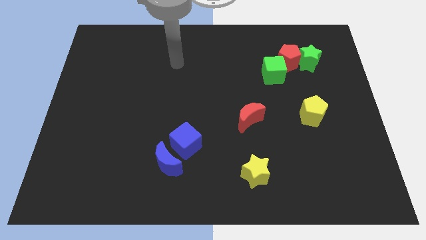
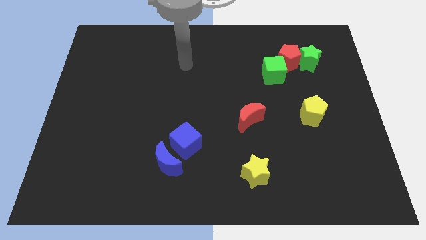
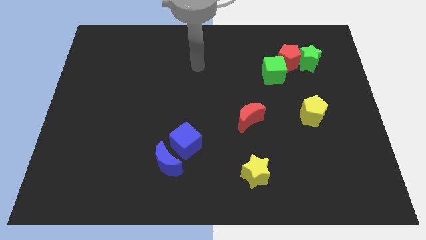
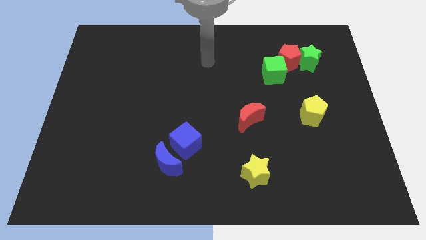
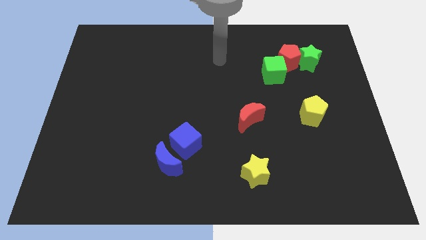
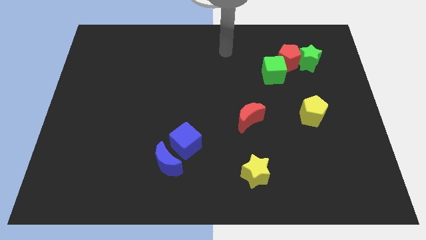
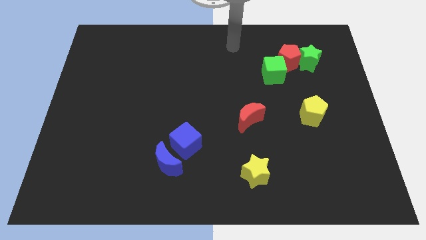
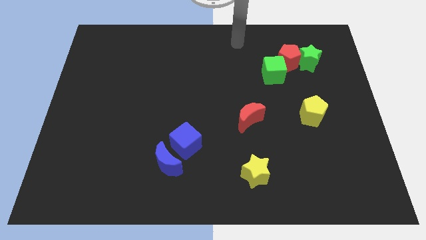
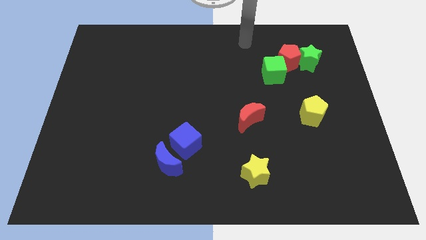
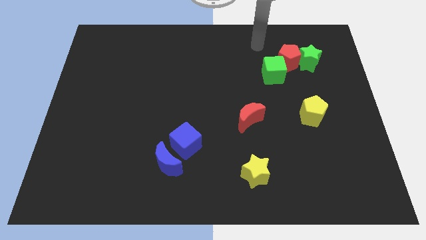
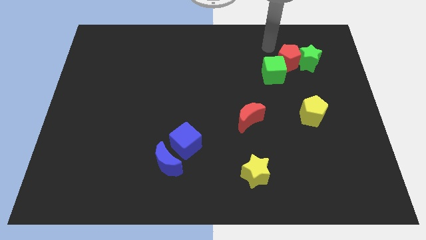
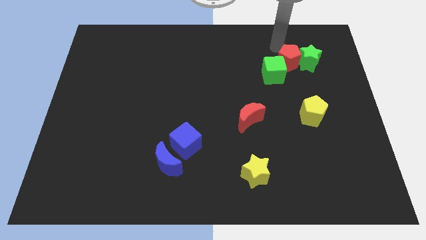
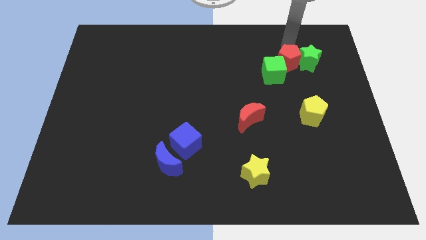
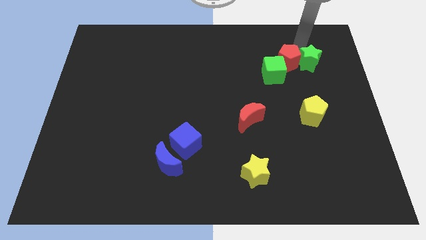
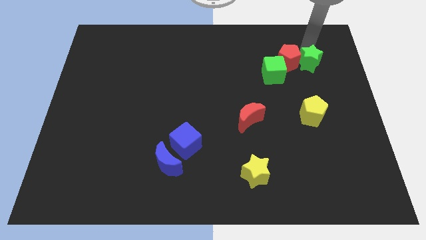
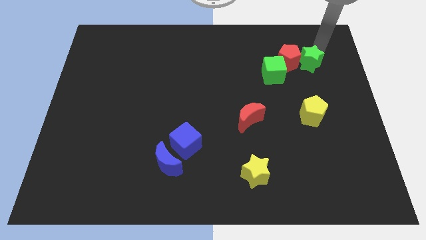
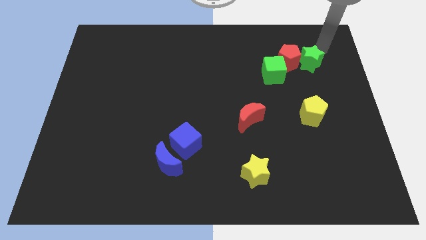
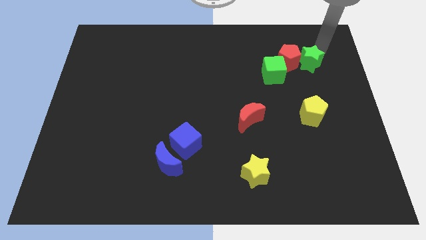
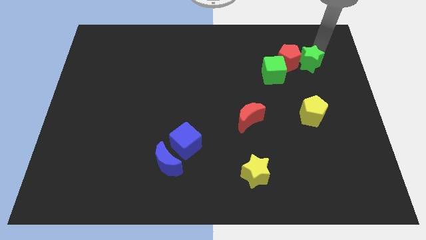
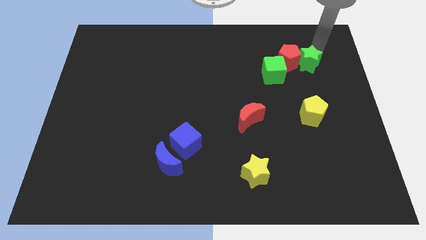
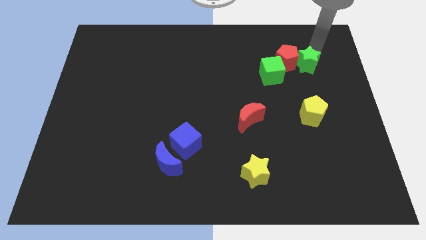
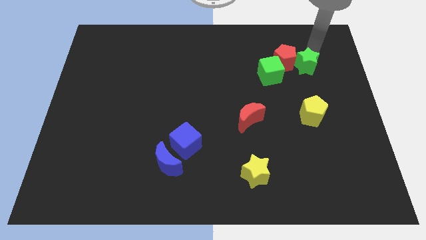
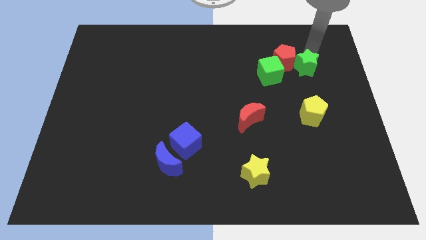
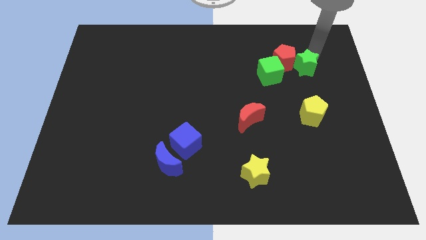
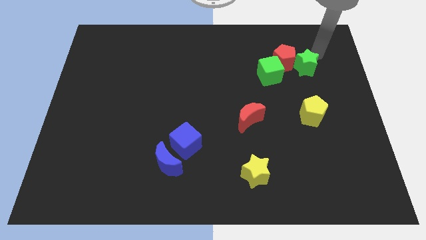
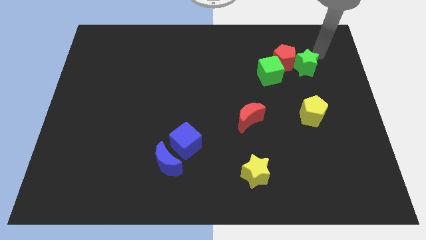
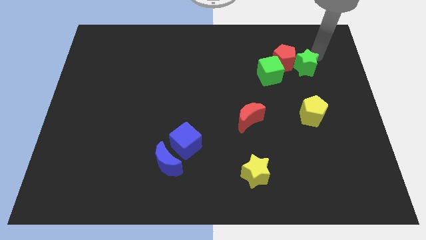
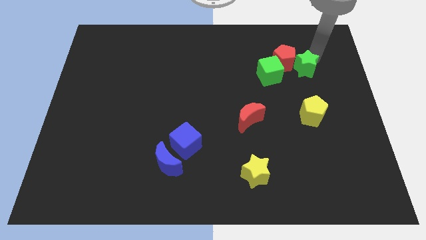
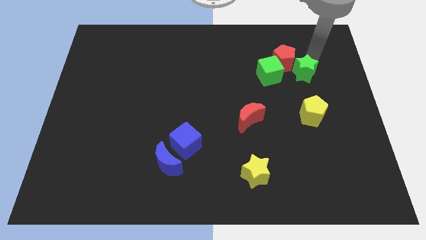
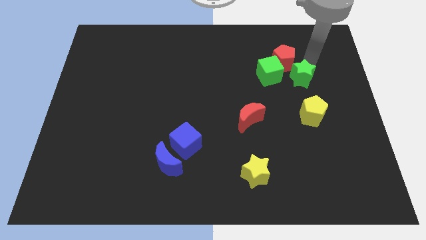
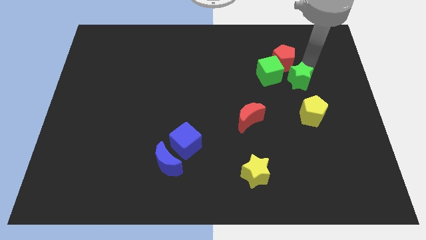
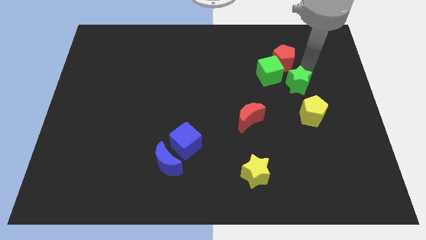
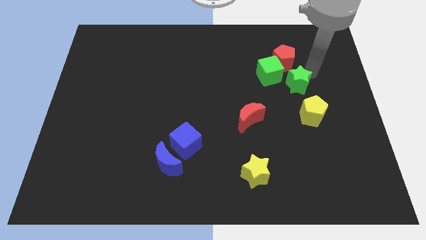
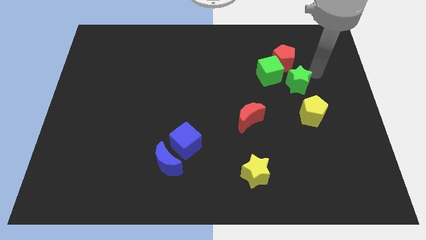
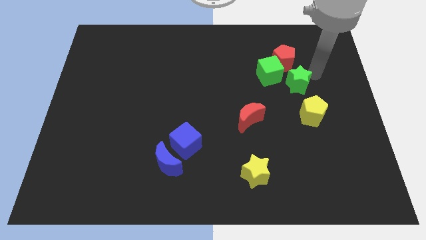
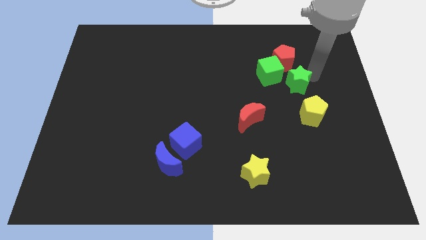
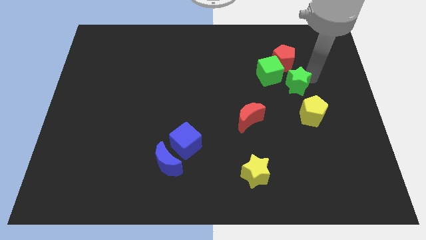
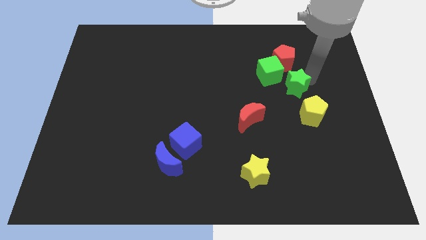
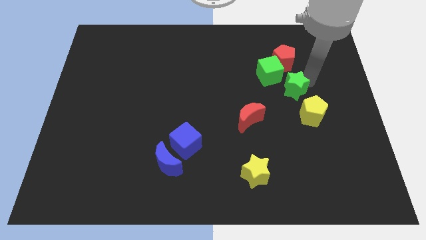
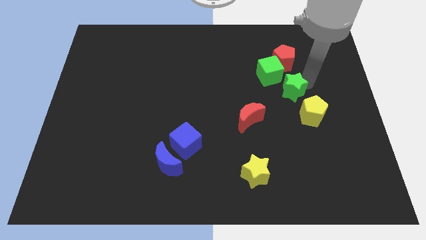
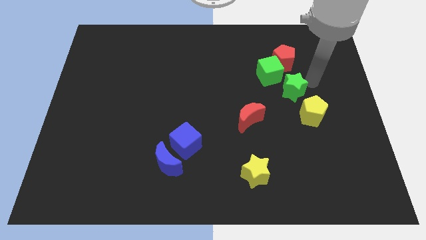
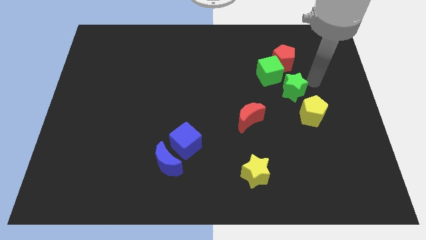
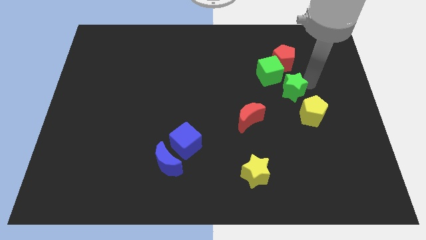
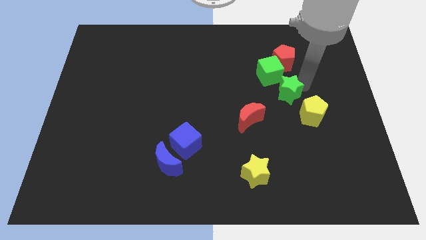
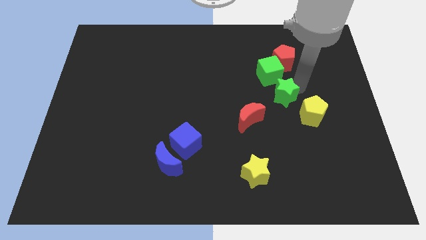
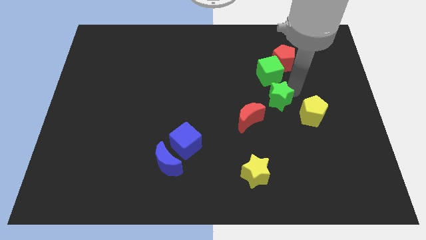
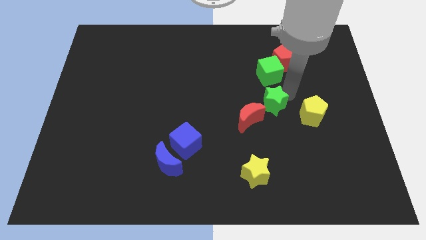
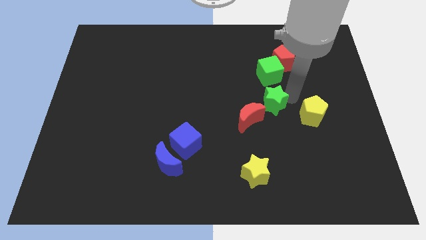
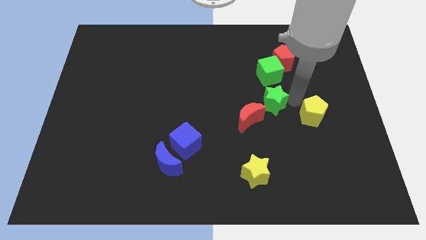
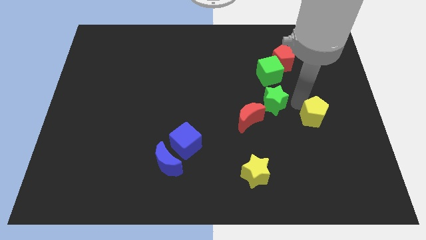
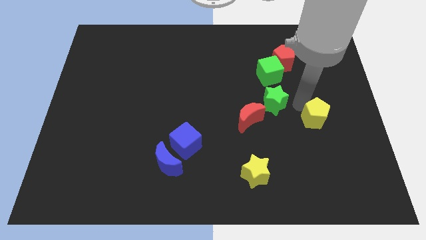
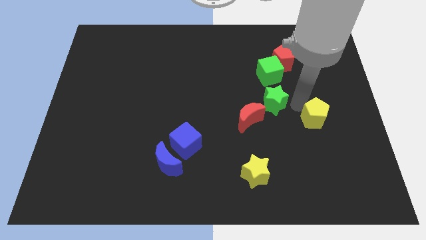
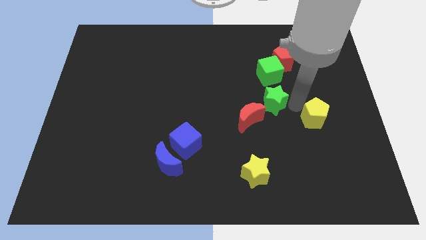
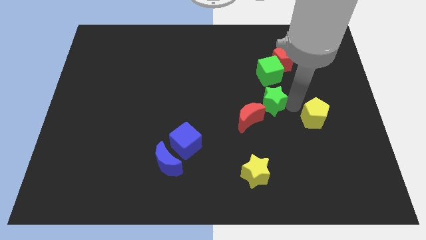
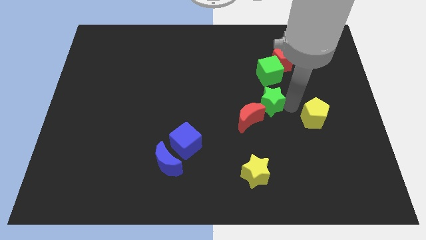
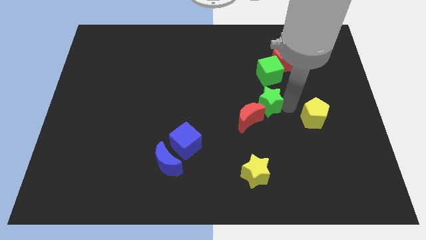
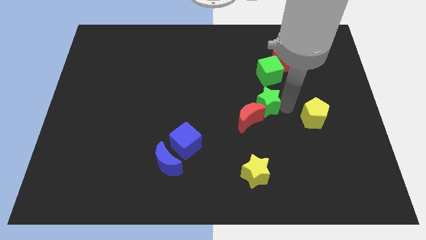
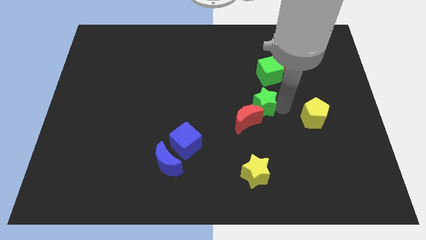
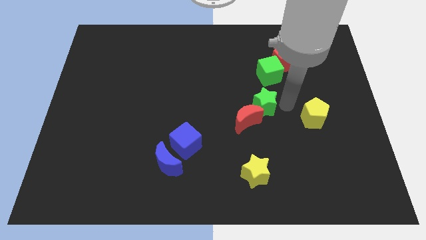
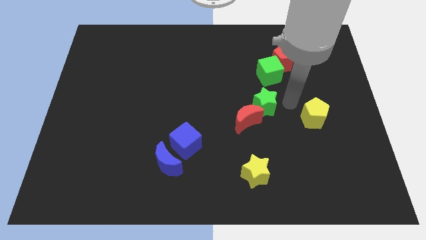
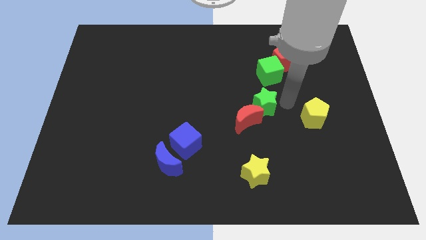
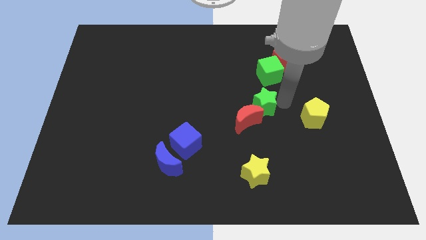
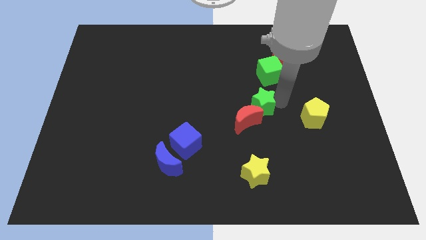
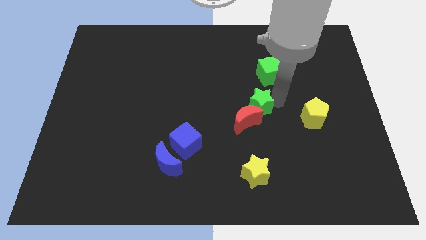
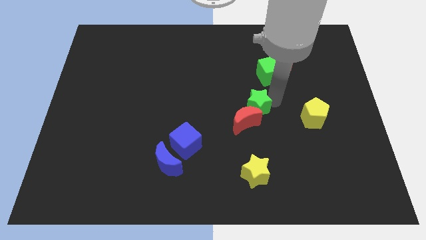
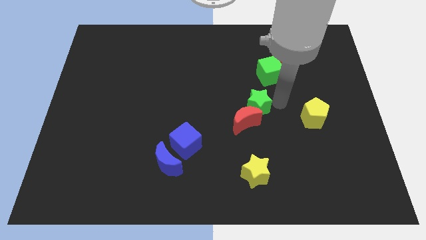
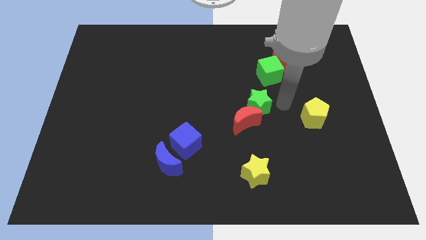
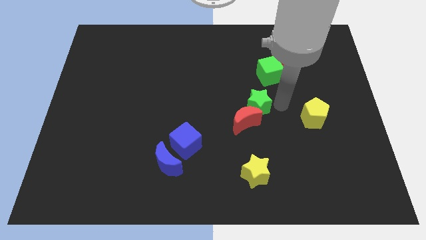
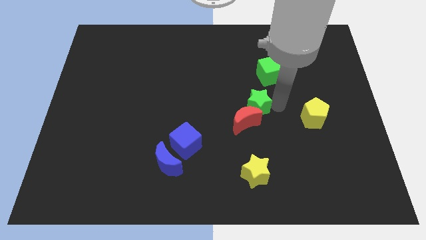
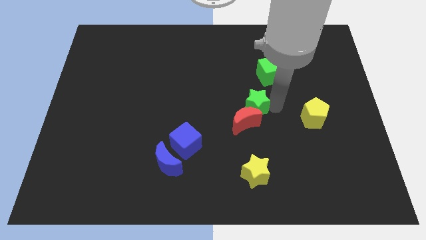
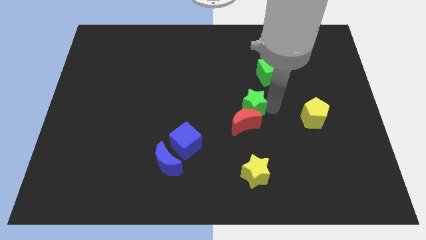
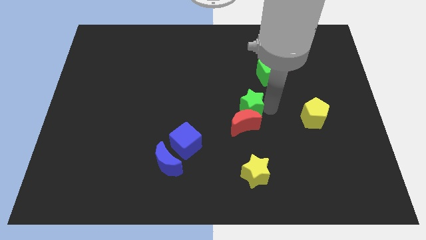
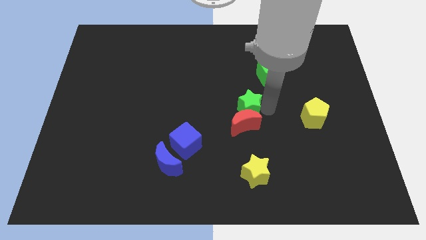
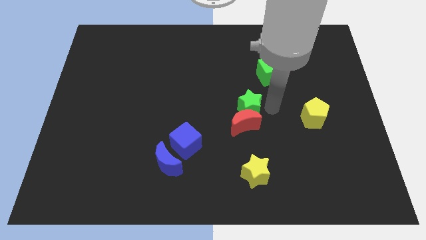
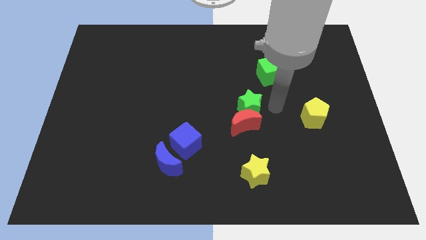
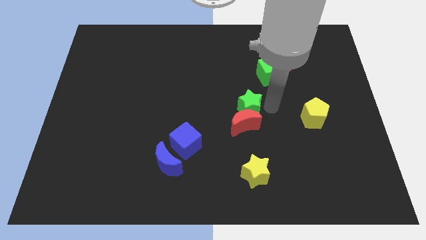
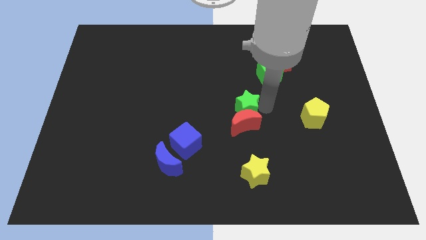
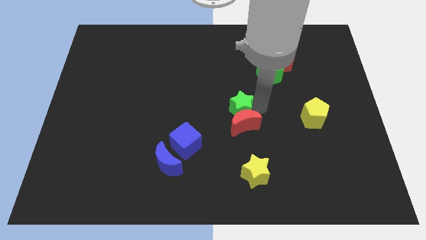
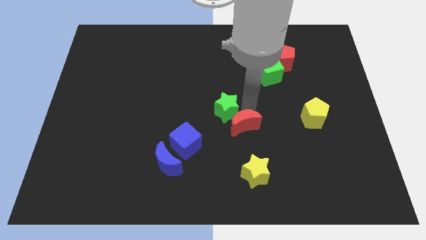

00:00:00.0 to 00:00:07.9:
move the green star to the left side of the red moon

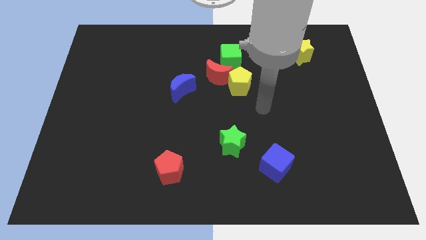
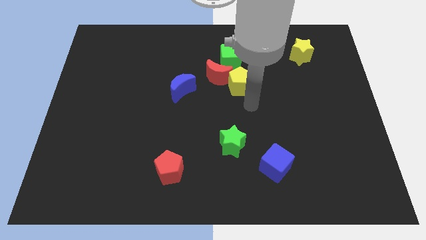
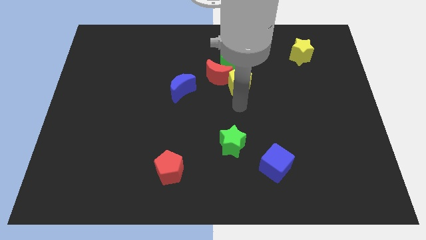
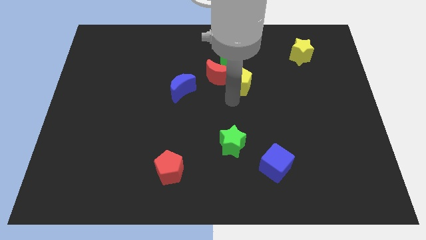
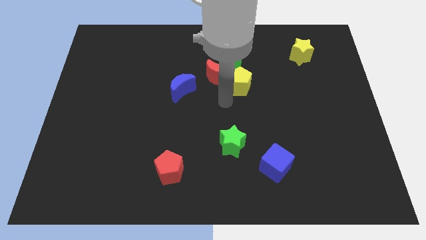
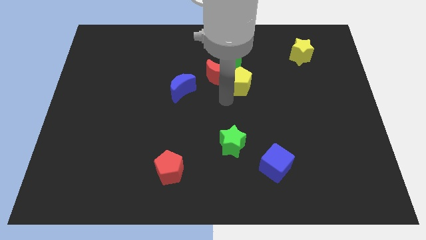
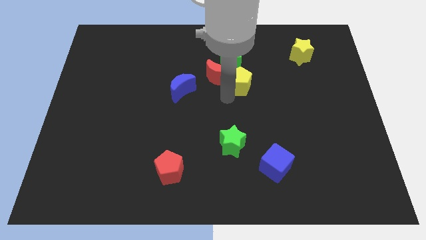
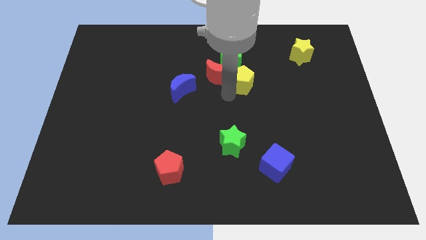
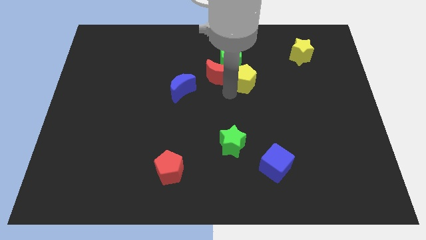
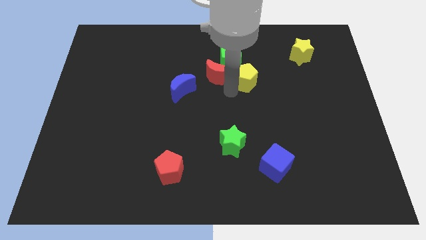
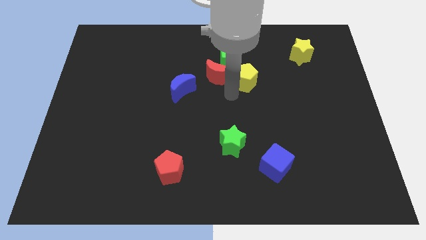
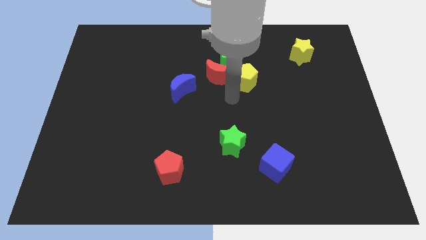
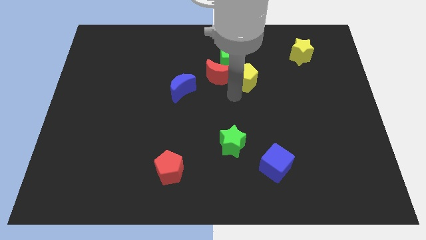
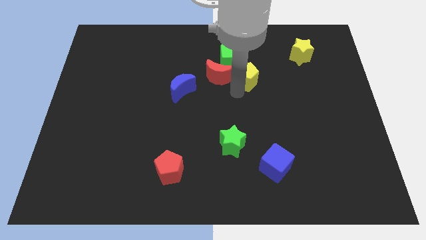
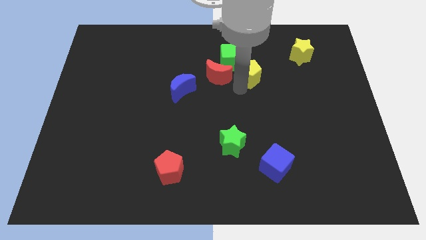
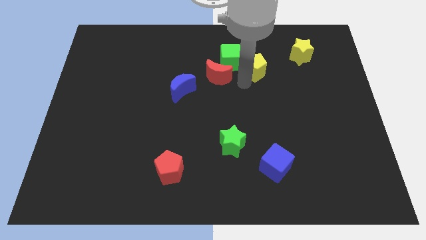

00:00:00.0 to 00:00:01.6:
put the yellow pentagon just right of the green cube
